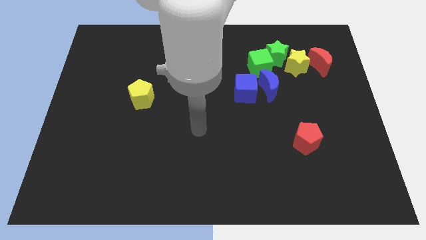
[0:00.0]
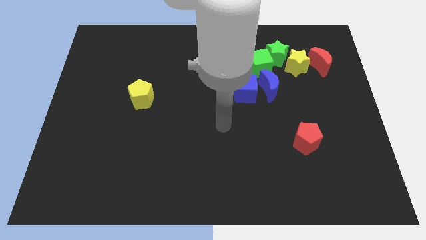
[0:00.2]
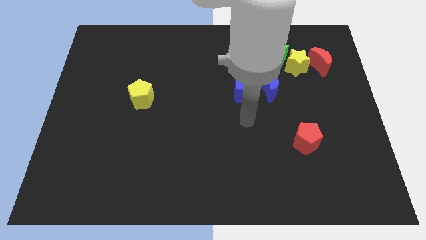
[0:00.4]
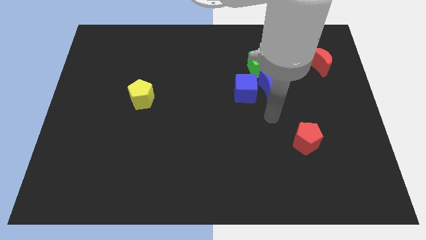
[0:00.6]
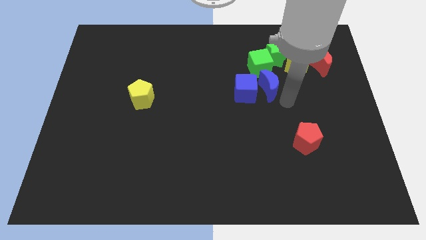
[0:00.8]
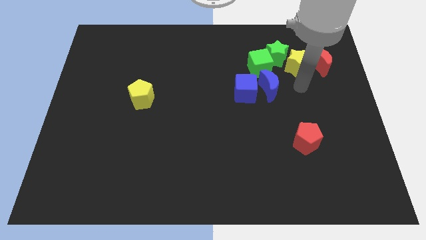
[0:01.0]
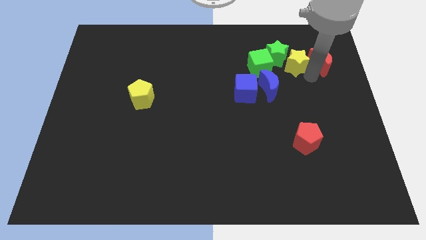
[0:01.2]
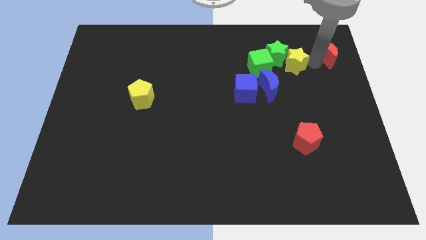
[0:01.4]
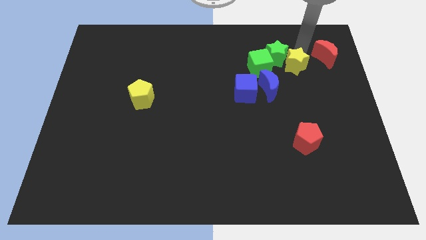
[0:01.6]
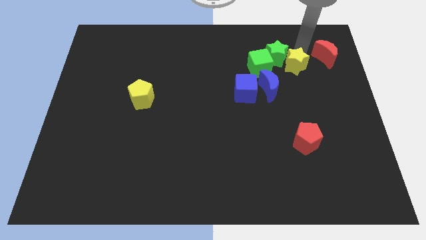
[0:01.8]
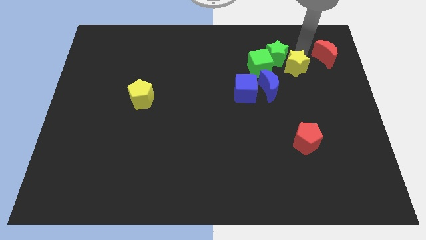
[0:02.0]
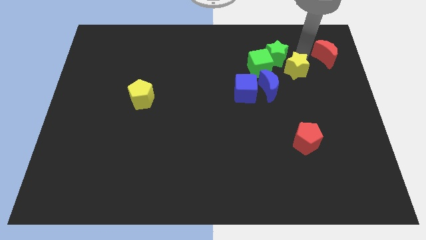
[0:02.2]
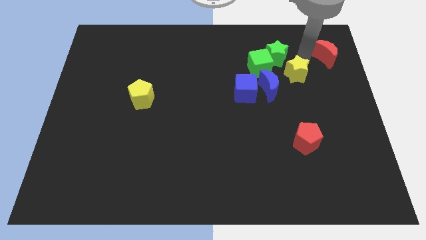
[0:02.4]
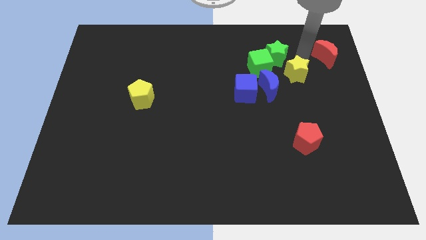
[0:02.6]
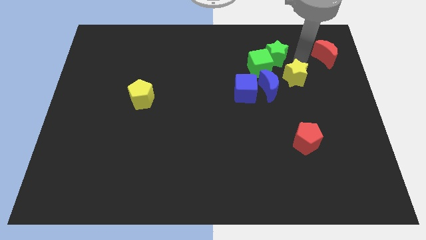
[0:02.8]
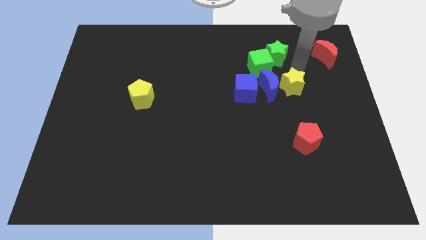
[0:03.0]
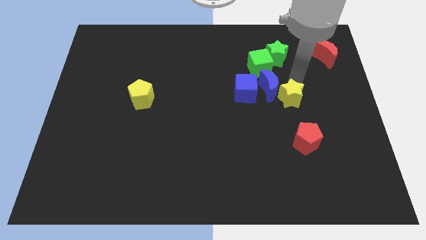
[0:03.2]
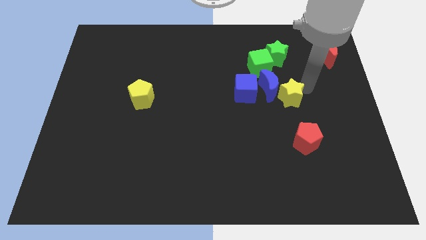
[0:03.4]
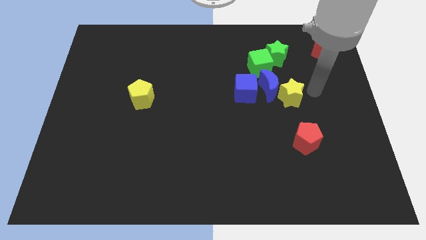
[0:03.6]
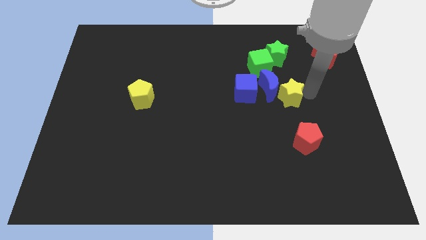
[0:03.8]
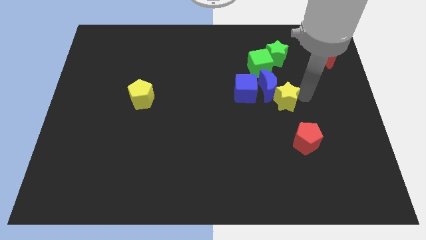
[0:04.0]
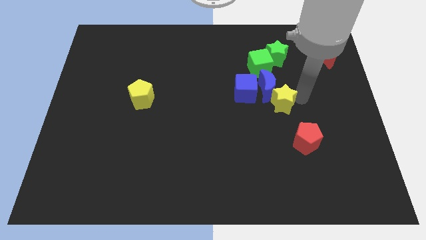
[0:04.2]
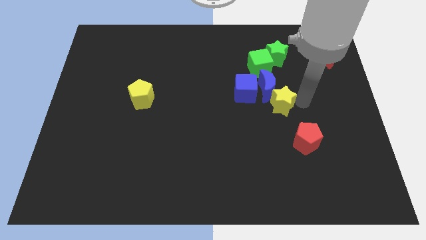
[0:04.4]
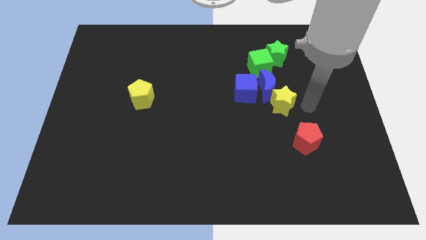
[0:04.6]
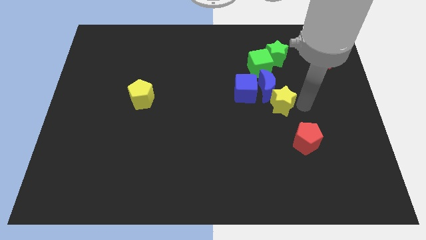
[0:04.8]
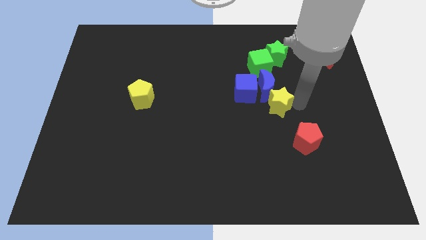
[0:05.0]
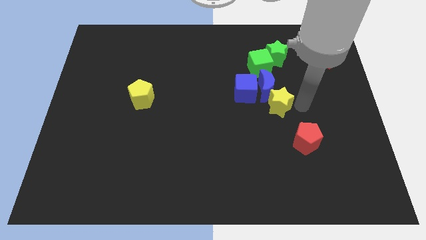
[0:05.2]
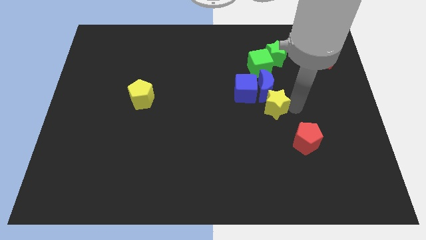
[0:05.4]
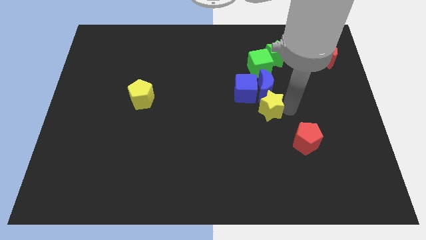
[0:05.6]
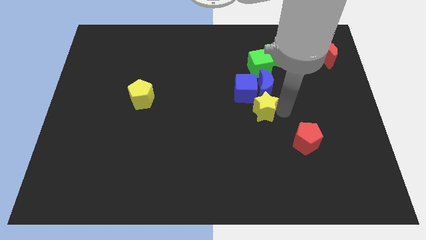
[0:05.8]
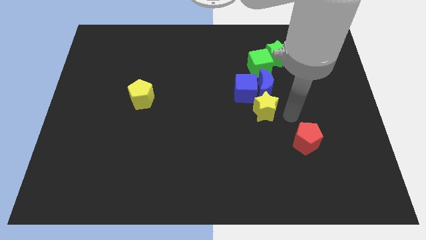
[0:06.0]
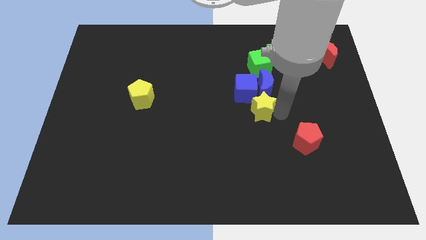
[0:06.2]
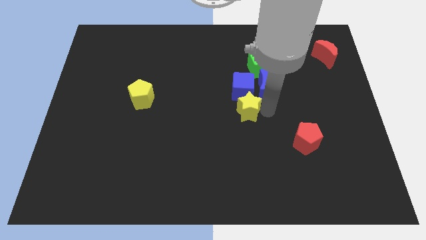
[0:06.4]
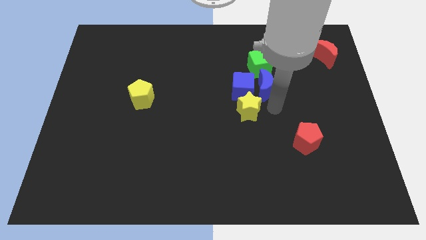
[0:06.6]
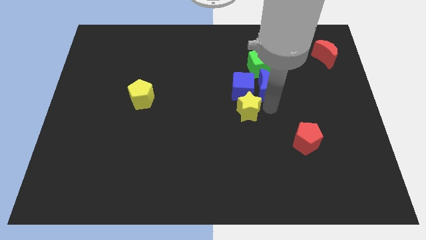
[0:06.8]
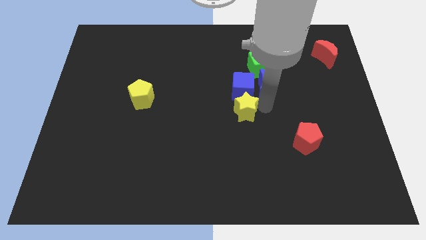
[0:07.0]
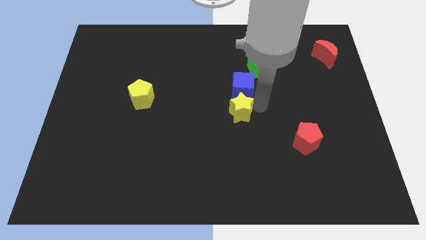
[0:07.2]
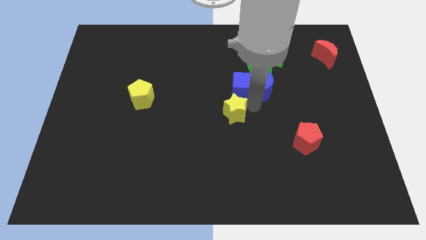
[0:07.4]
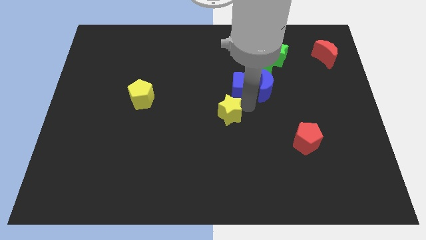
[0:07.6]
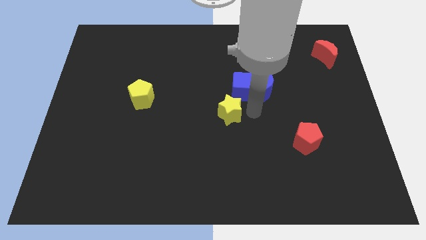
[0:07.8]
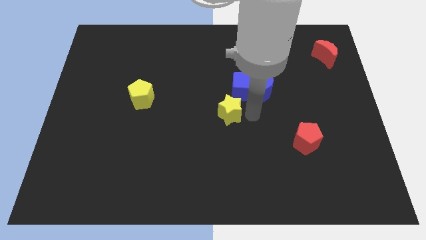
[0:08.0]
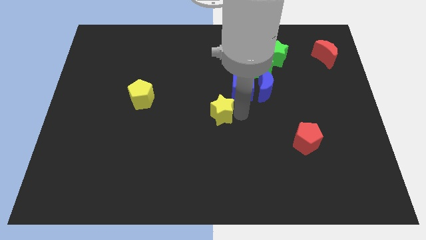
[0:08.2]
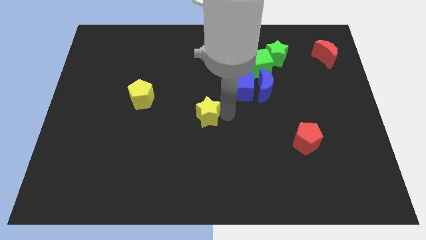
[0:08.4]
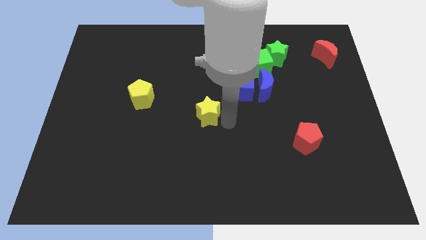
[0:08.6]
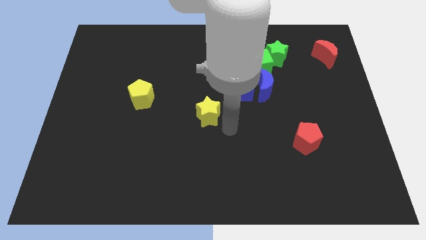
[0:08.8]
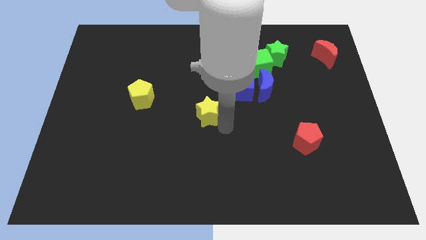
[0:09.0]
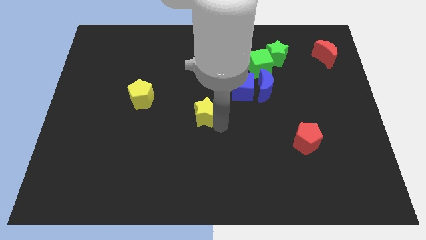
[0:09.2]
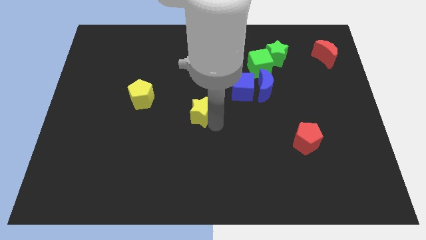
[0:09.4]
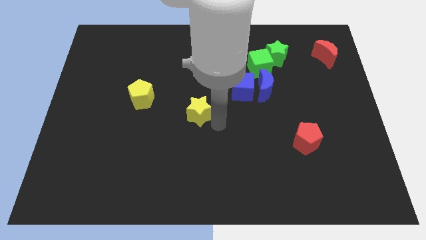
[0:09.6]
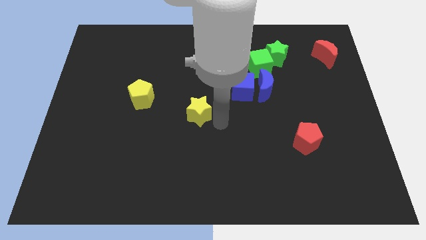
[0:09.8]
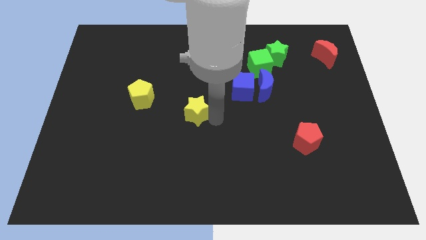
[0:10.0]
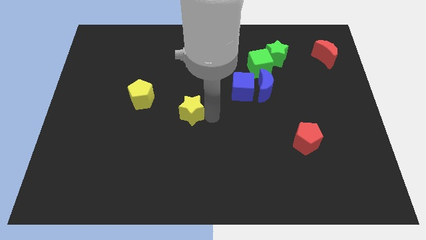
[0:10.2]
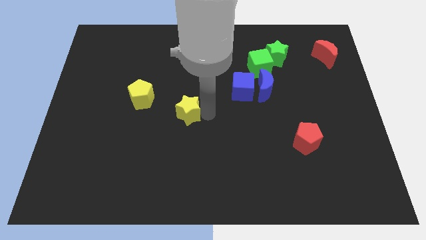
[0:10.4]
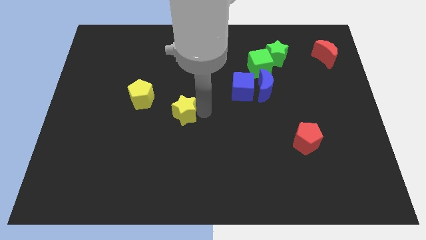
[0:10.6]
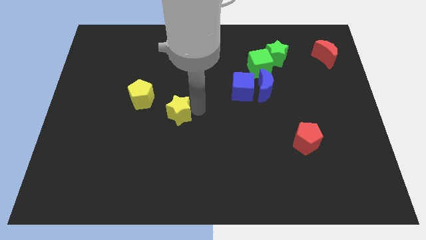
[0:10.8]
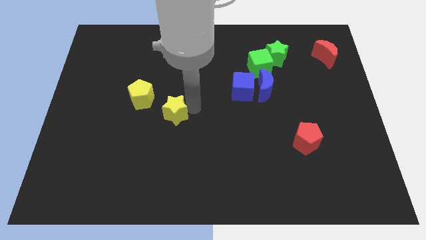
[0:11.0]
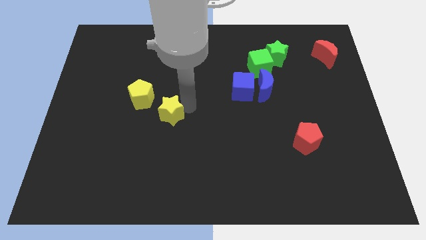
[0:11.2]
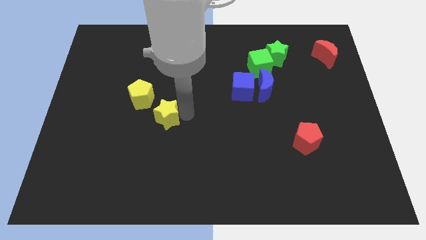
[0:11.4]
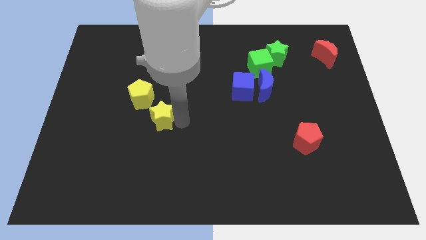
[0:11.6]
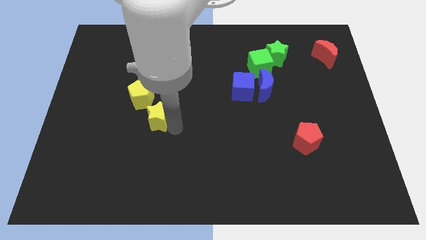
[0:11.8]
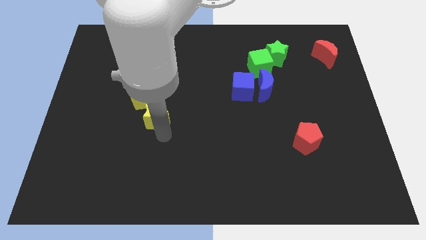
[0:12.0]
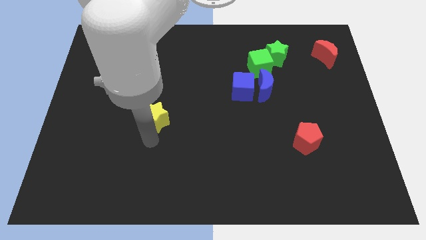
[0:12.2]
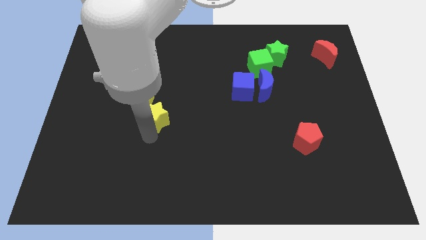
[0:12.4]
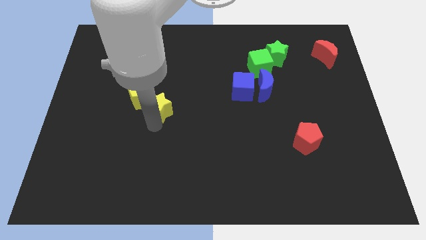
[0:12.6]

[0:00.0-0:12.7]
put the yellow star to the yellow pentagon

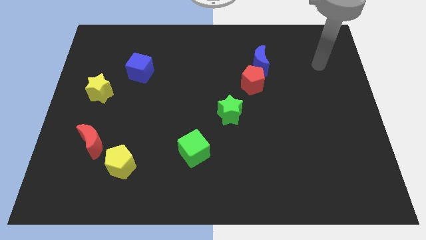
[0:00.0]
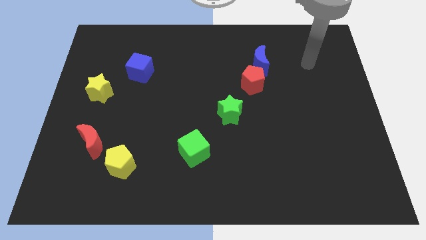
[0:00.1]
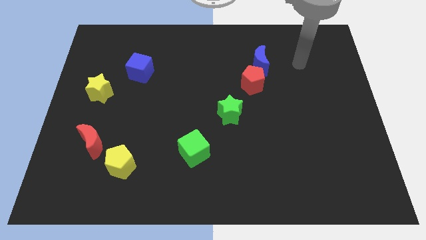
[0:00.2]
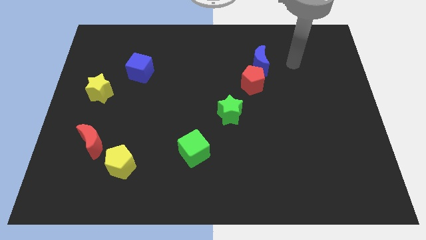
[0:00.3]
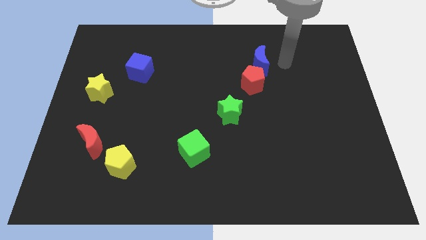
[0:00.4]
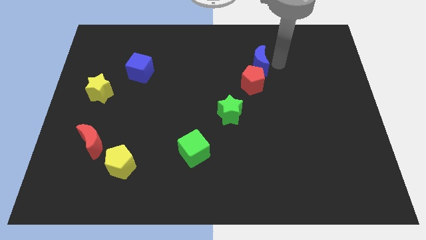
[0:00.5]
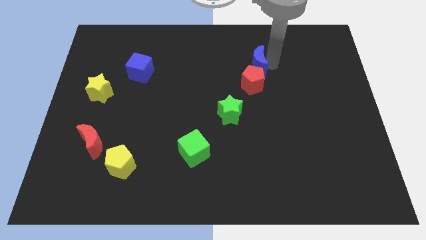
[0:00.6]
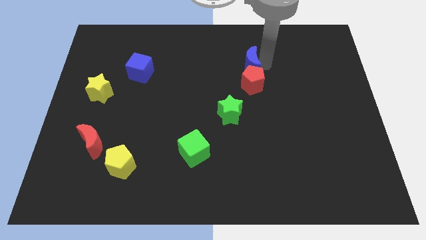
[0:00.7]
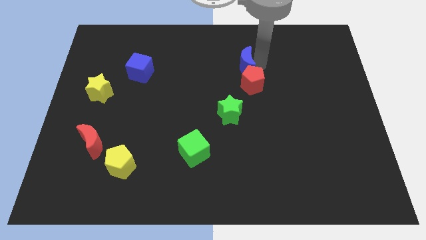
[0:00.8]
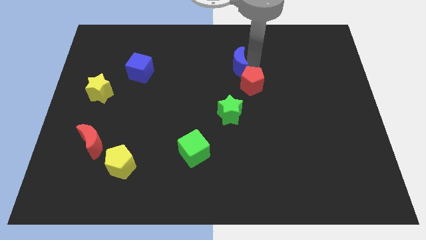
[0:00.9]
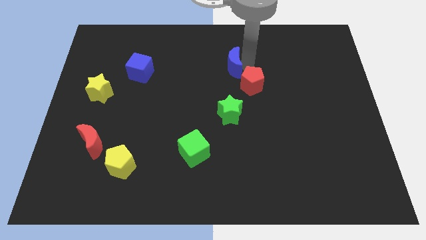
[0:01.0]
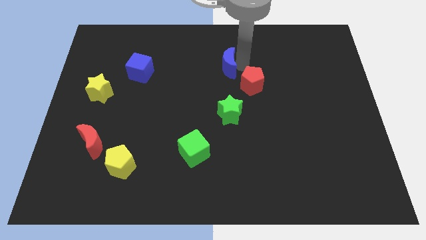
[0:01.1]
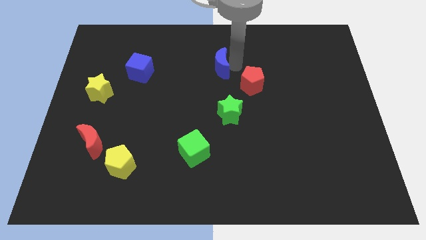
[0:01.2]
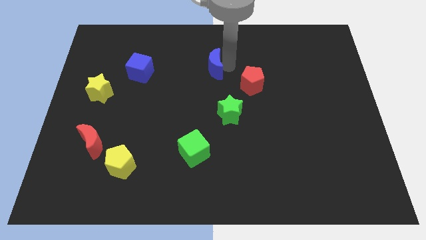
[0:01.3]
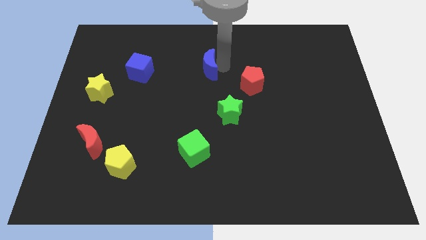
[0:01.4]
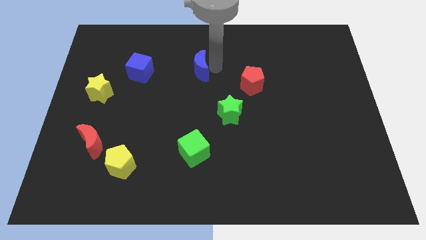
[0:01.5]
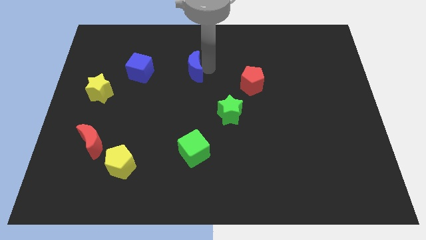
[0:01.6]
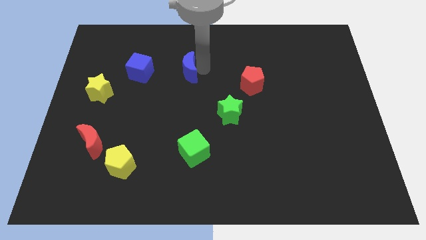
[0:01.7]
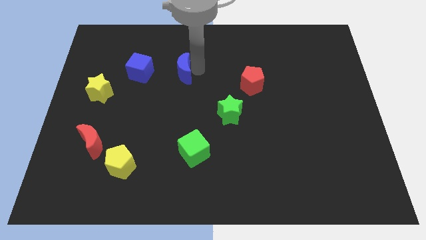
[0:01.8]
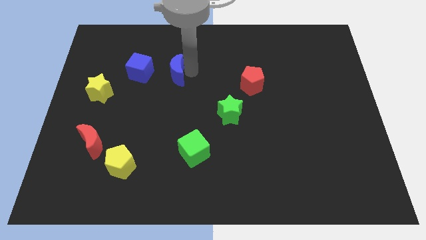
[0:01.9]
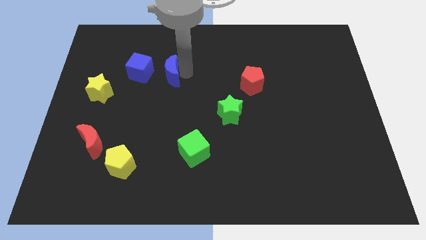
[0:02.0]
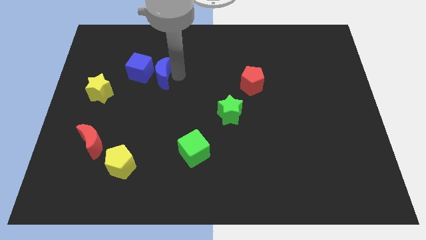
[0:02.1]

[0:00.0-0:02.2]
slide the blue moon close to the blue cube
